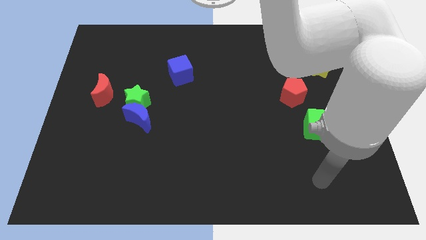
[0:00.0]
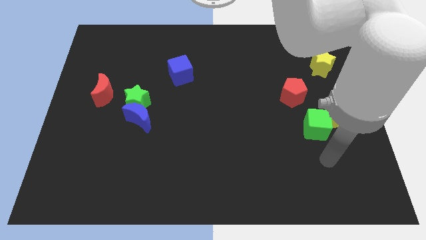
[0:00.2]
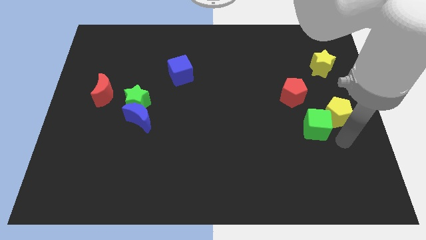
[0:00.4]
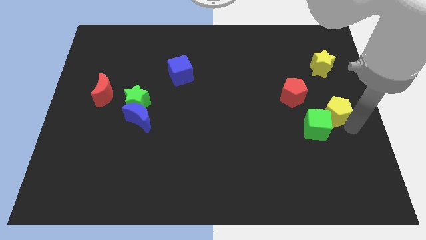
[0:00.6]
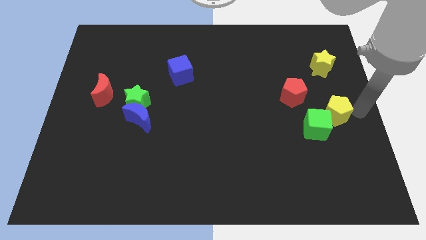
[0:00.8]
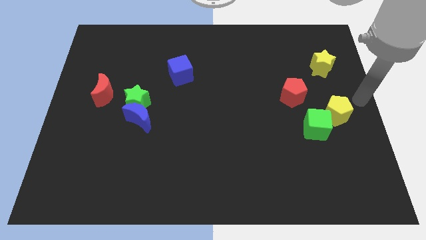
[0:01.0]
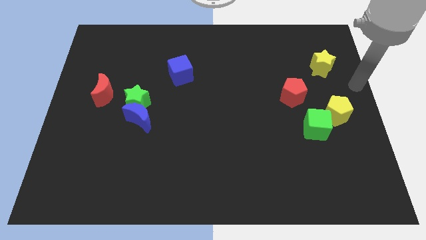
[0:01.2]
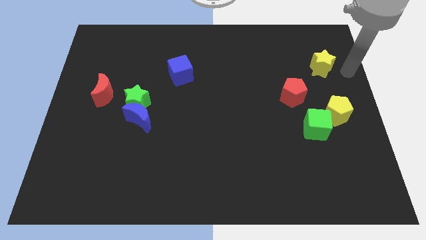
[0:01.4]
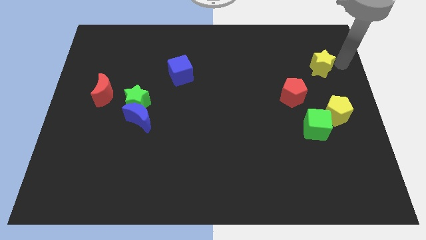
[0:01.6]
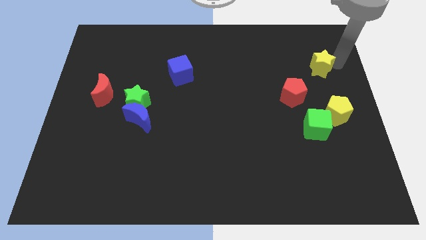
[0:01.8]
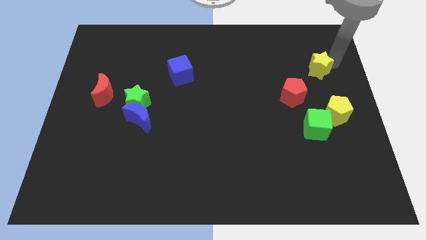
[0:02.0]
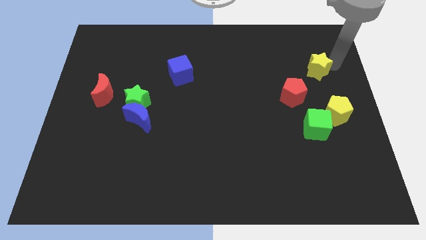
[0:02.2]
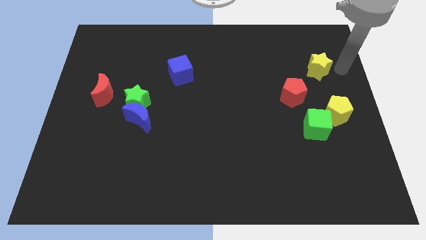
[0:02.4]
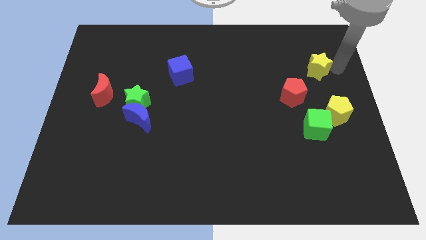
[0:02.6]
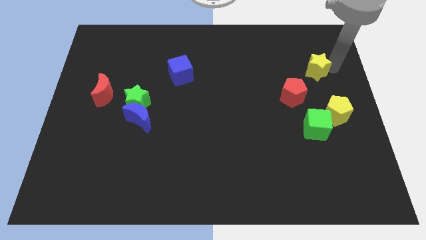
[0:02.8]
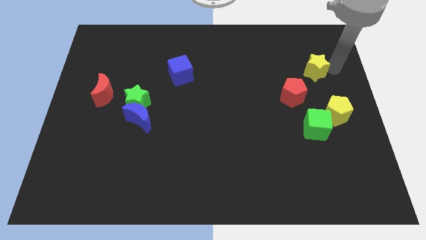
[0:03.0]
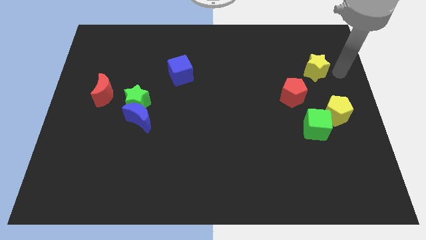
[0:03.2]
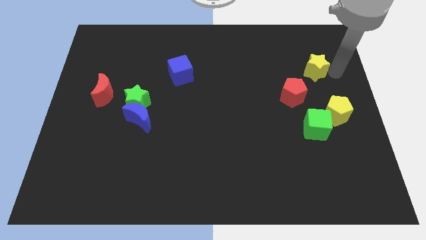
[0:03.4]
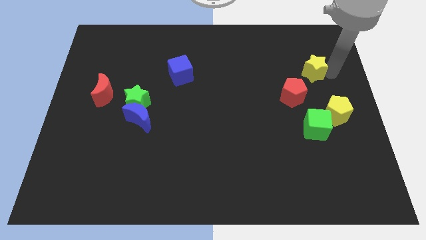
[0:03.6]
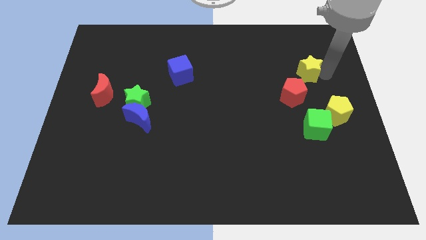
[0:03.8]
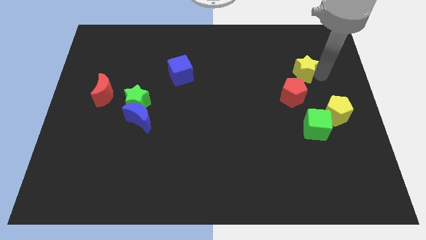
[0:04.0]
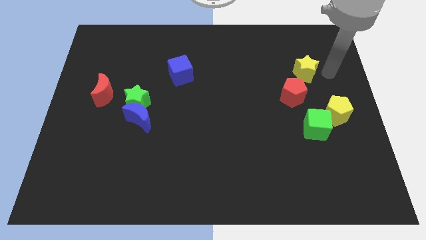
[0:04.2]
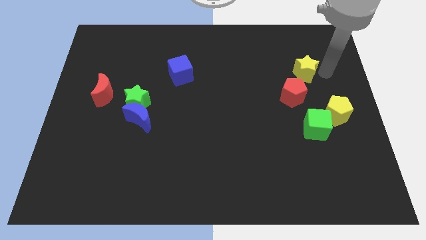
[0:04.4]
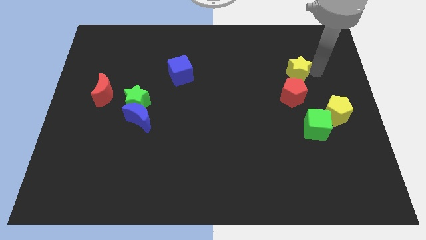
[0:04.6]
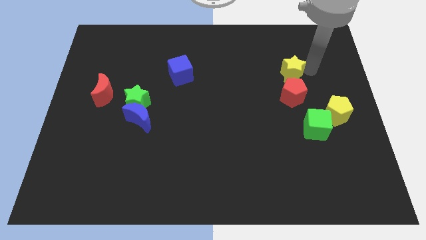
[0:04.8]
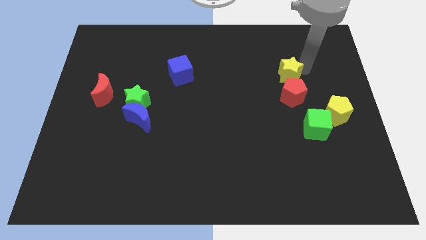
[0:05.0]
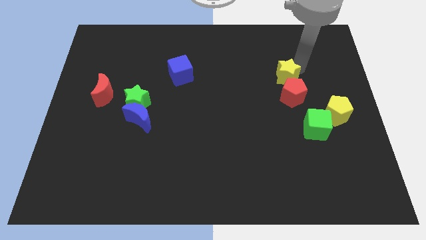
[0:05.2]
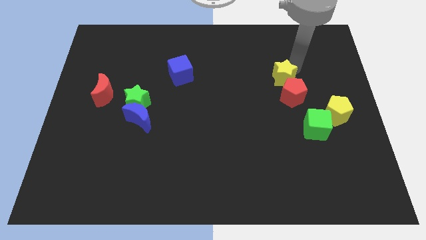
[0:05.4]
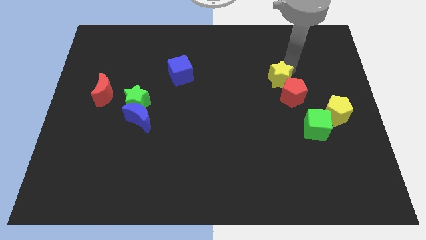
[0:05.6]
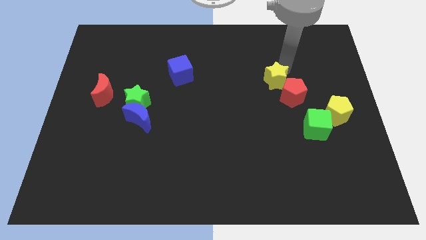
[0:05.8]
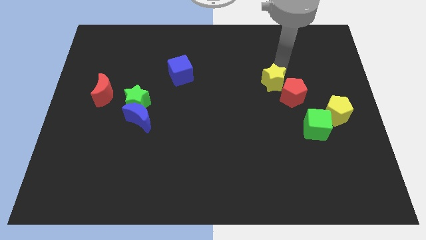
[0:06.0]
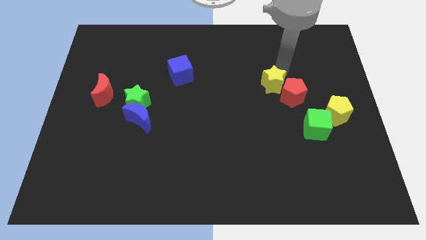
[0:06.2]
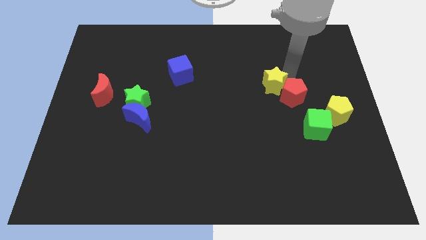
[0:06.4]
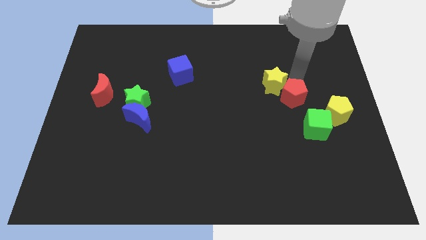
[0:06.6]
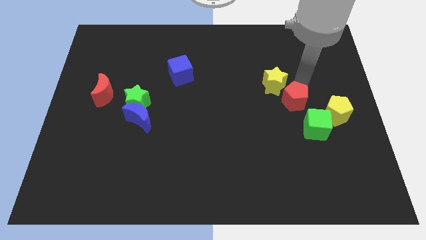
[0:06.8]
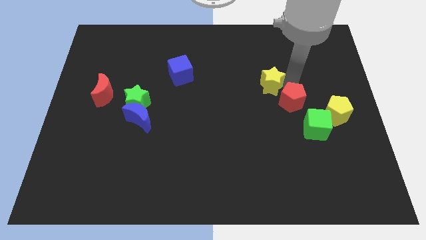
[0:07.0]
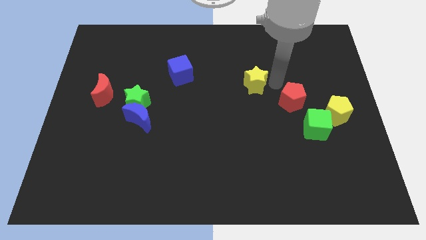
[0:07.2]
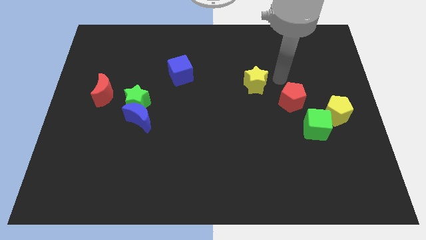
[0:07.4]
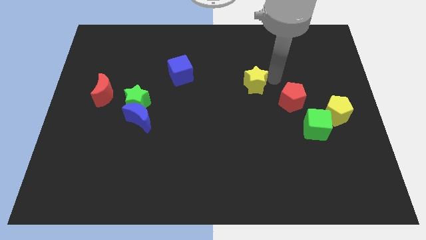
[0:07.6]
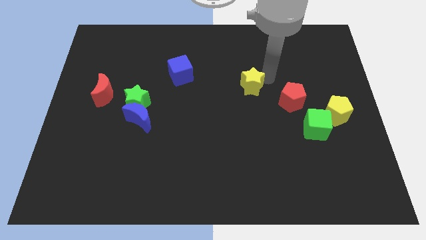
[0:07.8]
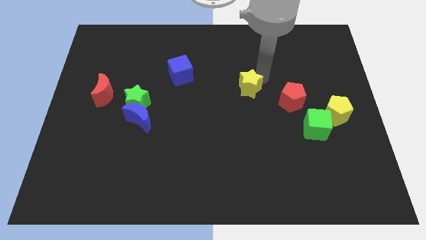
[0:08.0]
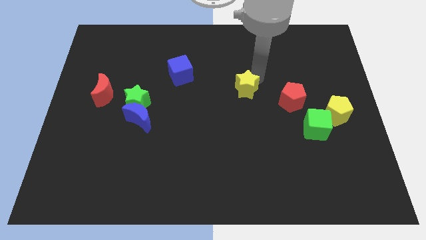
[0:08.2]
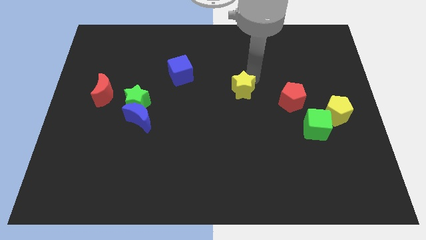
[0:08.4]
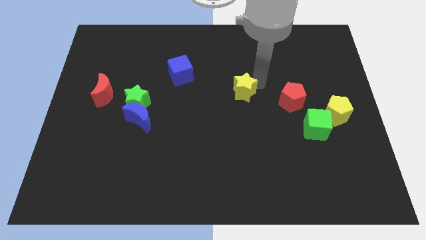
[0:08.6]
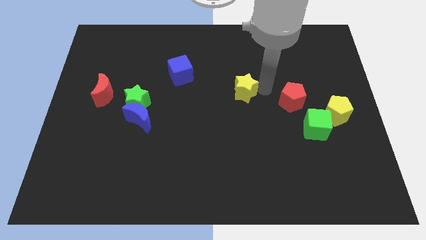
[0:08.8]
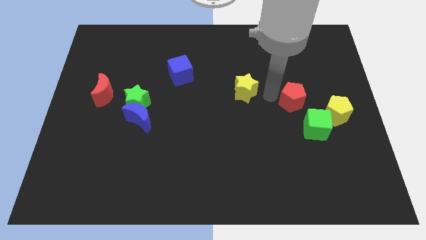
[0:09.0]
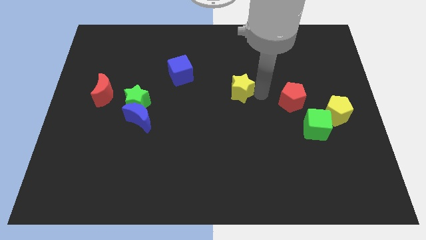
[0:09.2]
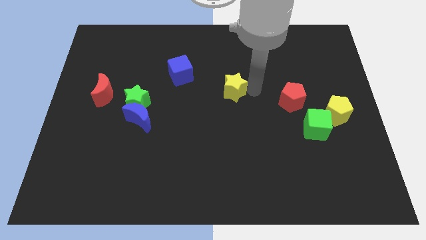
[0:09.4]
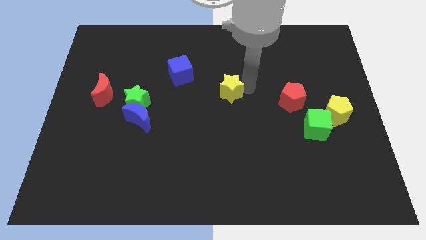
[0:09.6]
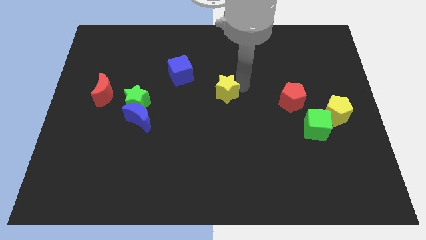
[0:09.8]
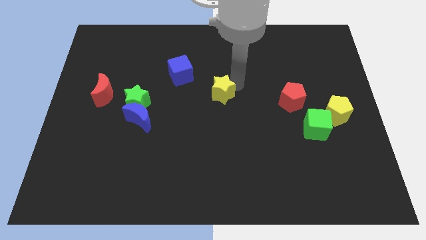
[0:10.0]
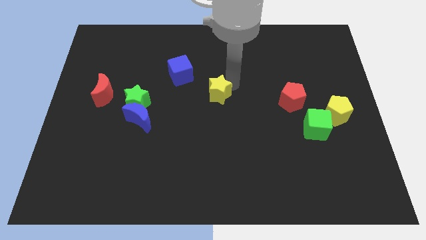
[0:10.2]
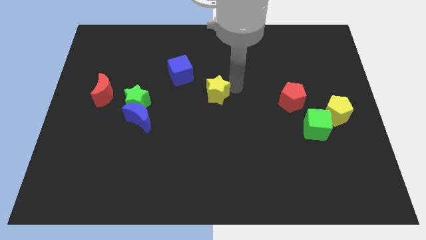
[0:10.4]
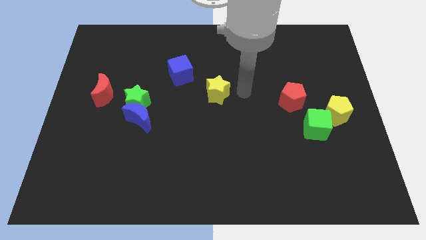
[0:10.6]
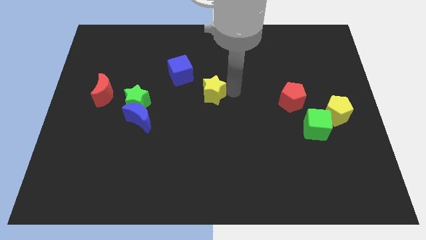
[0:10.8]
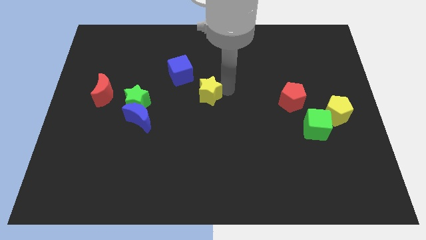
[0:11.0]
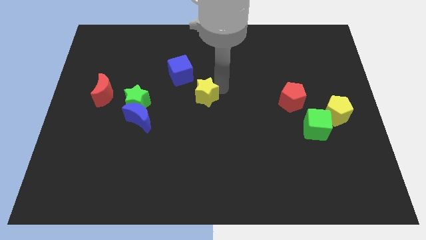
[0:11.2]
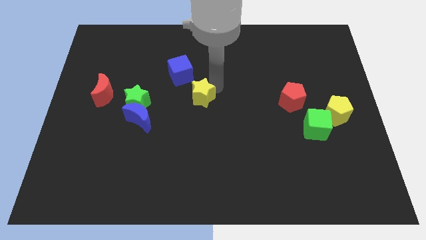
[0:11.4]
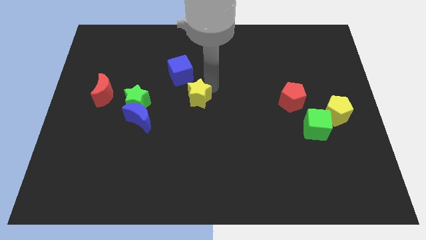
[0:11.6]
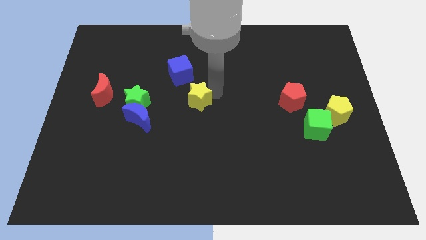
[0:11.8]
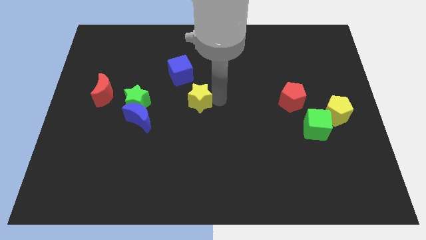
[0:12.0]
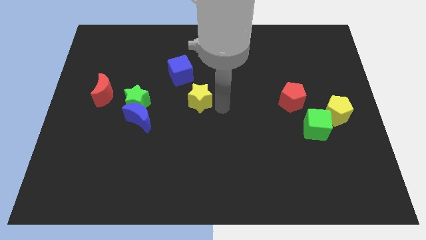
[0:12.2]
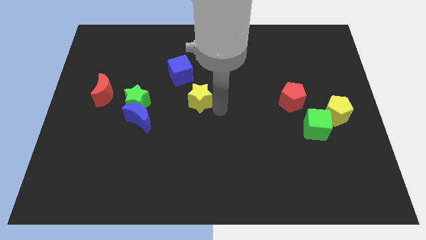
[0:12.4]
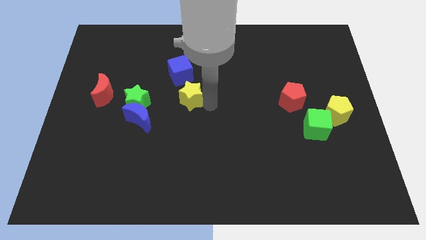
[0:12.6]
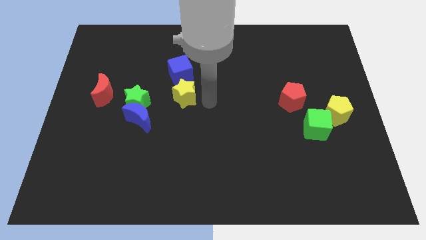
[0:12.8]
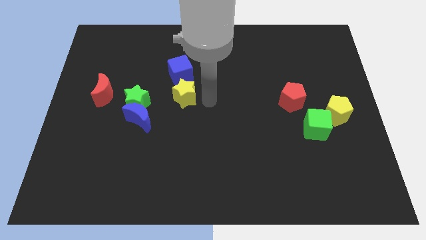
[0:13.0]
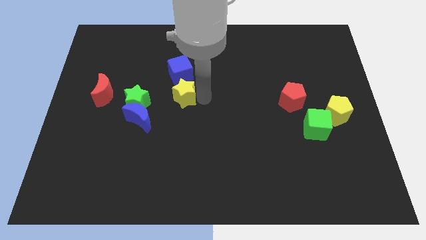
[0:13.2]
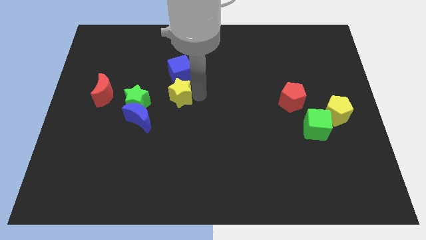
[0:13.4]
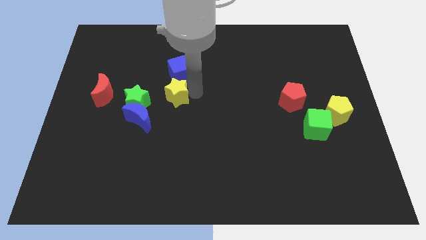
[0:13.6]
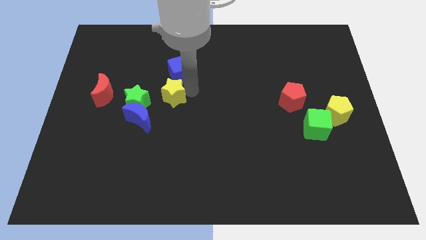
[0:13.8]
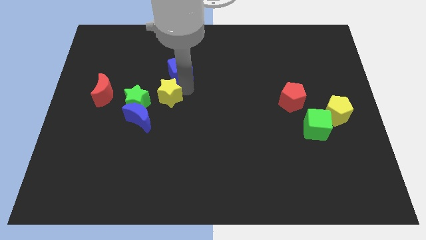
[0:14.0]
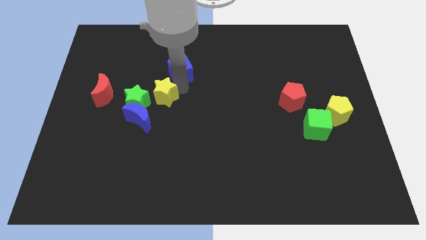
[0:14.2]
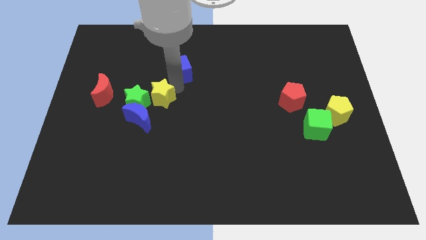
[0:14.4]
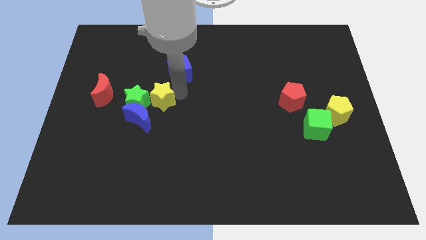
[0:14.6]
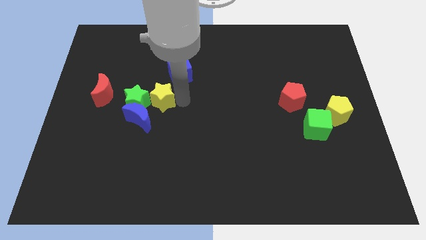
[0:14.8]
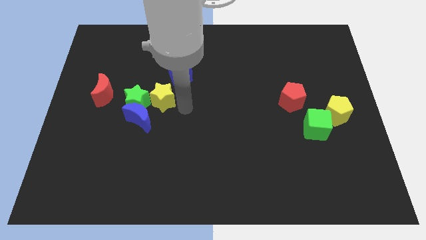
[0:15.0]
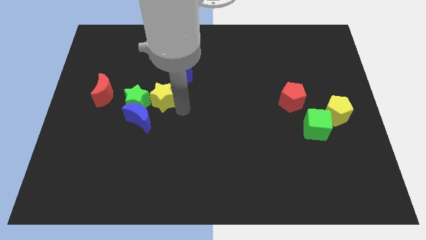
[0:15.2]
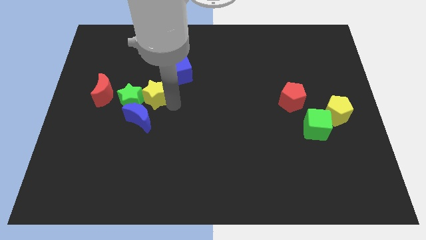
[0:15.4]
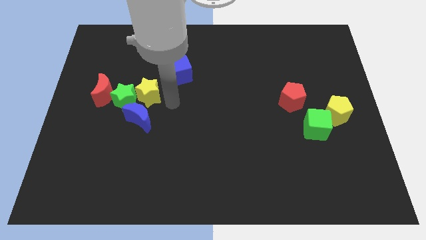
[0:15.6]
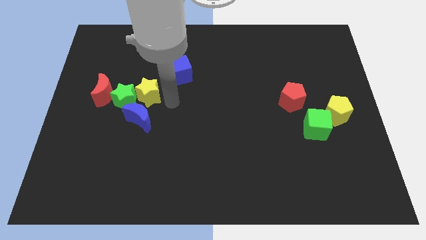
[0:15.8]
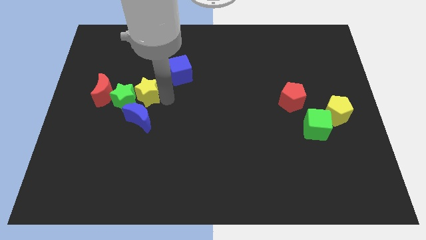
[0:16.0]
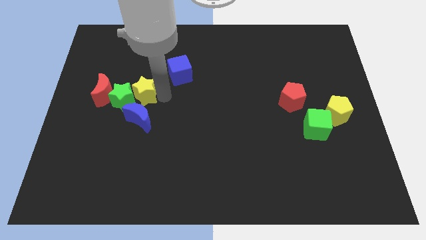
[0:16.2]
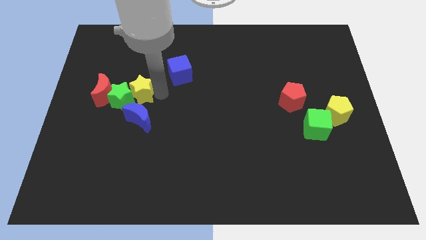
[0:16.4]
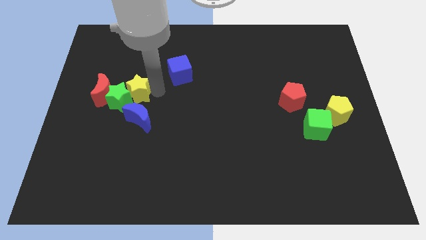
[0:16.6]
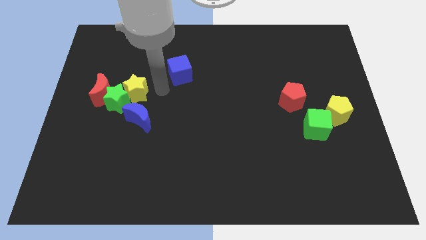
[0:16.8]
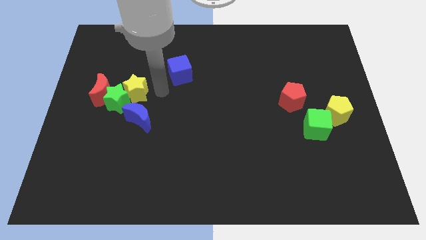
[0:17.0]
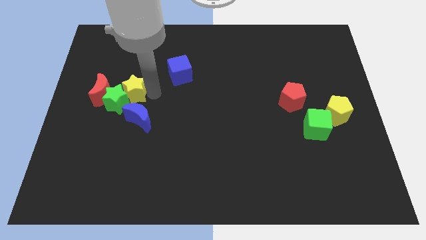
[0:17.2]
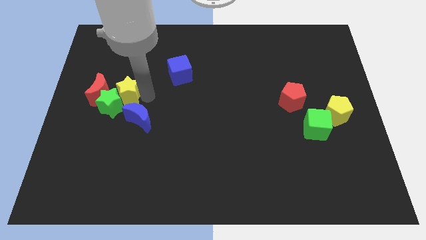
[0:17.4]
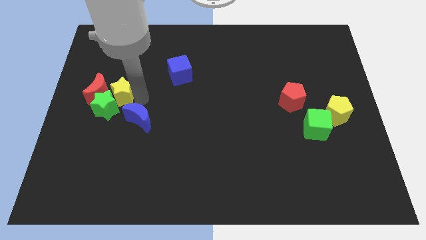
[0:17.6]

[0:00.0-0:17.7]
push the yellow star towards the red moon
